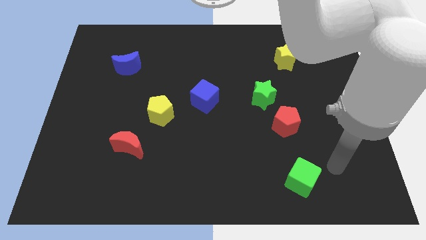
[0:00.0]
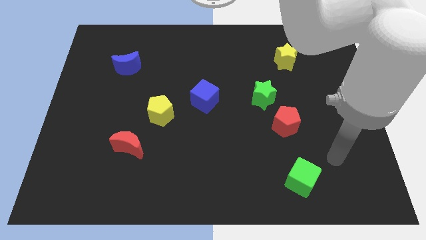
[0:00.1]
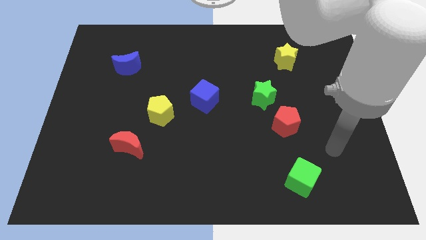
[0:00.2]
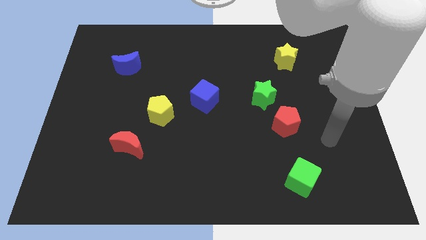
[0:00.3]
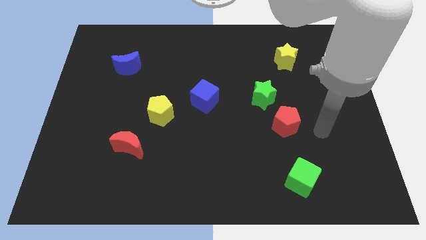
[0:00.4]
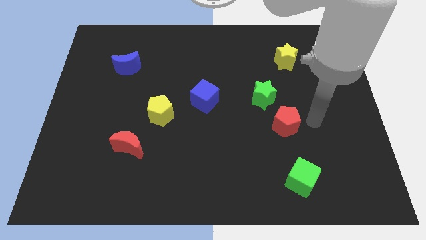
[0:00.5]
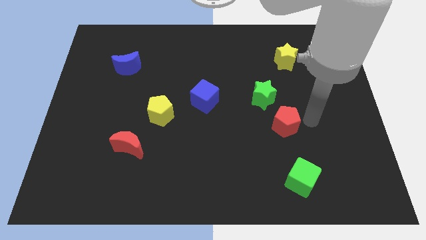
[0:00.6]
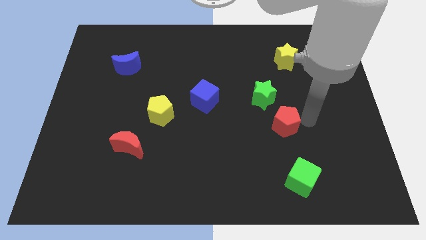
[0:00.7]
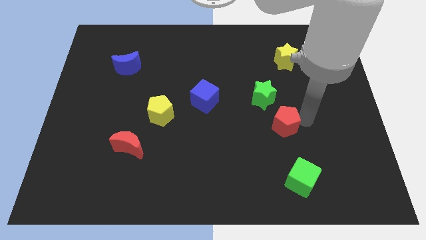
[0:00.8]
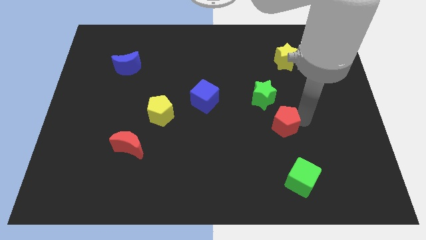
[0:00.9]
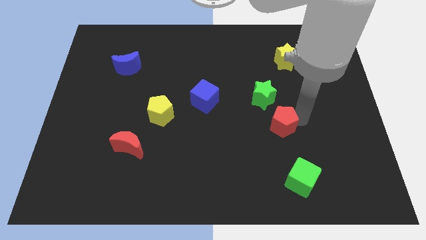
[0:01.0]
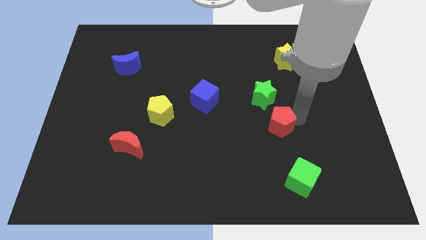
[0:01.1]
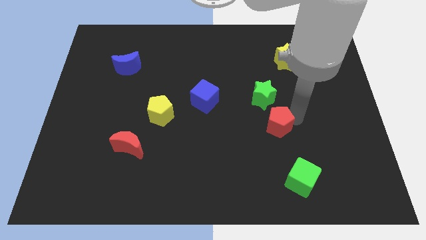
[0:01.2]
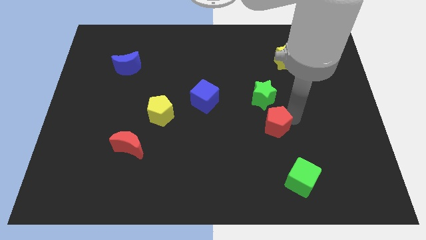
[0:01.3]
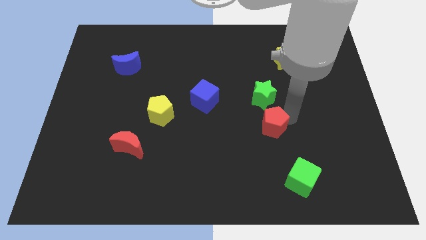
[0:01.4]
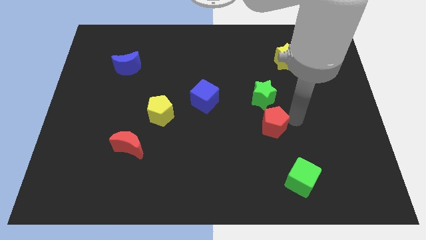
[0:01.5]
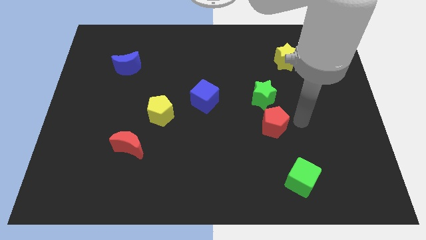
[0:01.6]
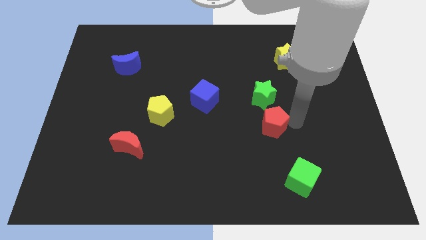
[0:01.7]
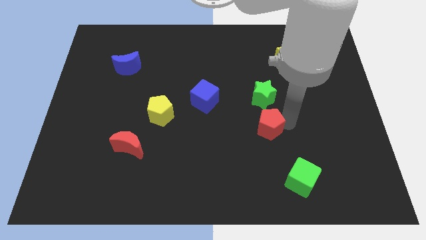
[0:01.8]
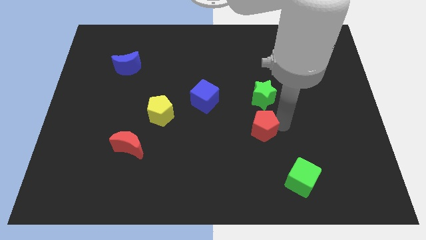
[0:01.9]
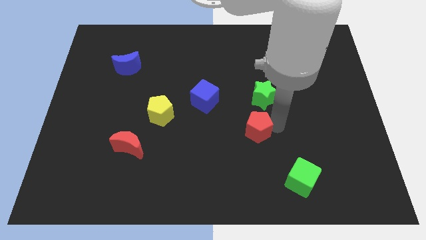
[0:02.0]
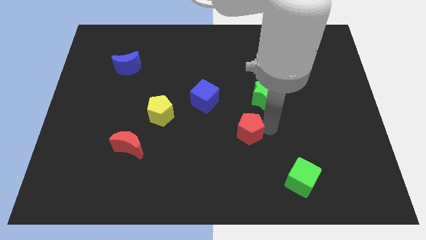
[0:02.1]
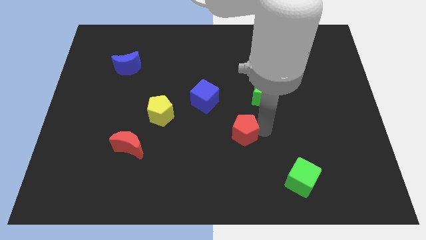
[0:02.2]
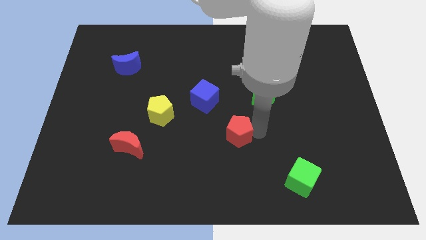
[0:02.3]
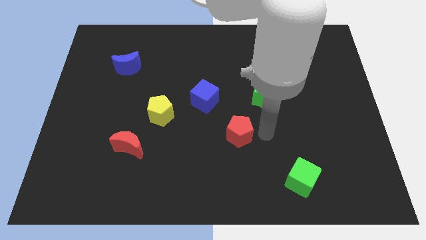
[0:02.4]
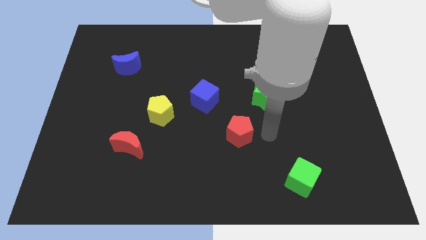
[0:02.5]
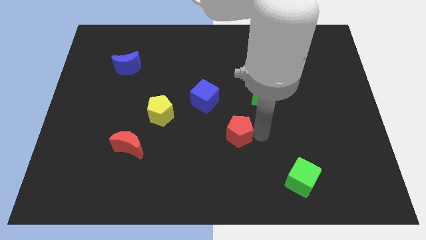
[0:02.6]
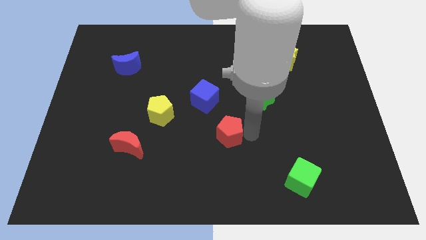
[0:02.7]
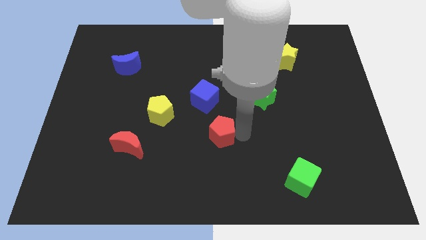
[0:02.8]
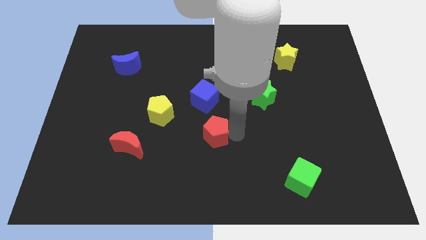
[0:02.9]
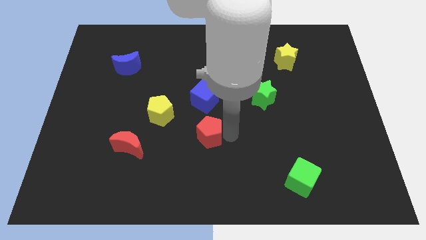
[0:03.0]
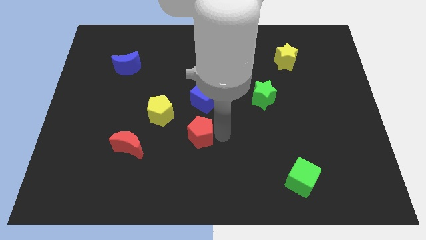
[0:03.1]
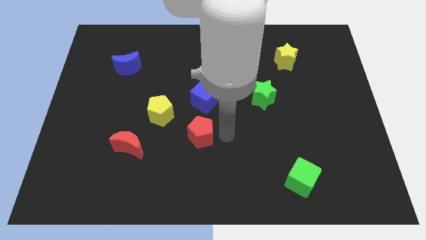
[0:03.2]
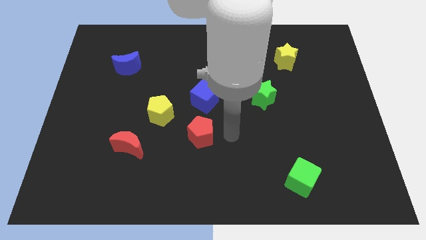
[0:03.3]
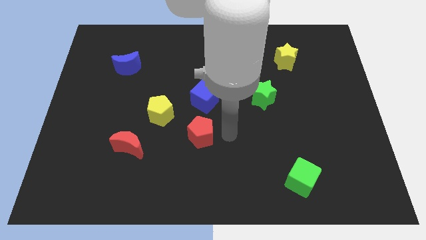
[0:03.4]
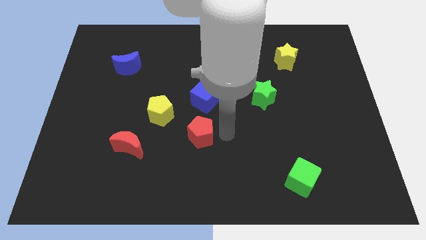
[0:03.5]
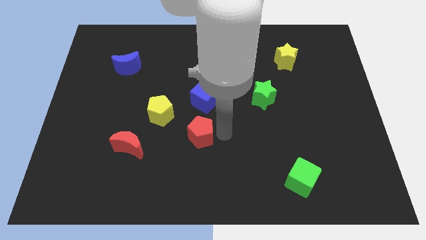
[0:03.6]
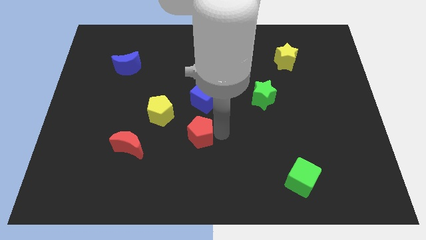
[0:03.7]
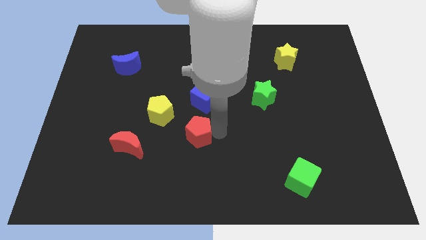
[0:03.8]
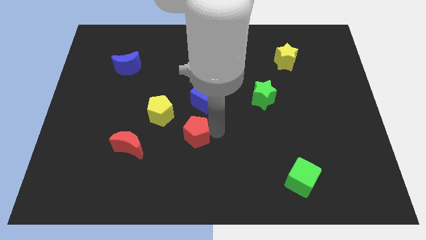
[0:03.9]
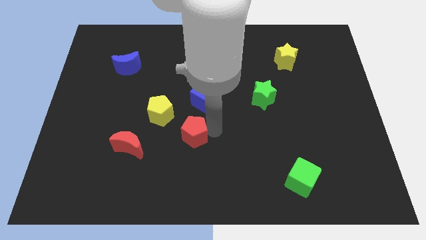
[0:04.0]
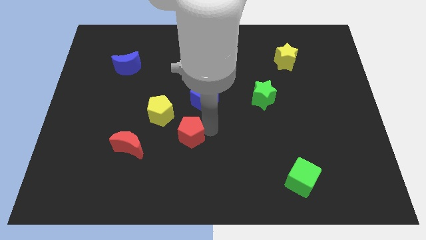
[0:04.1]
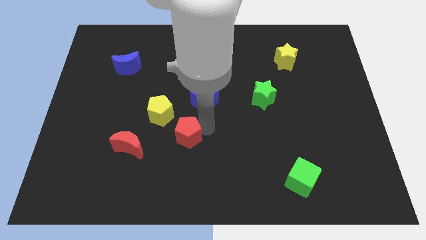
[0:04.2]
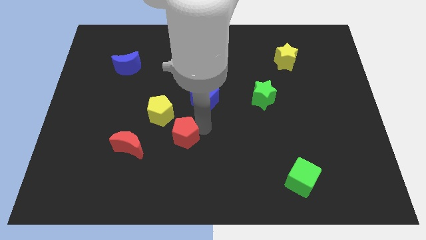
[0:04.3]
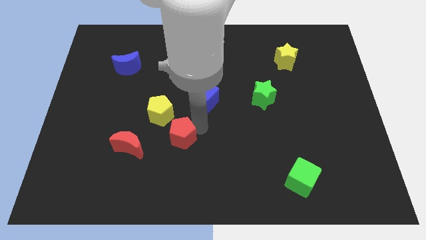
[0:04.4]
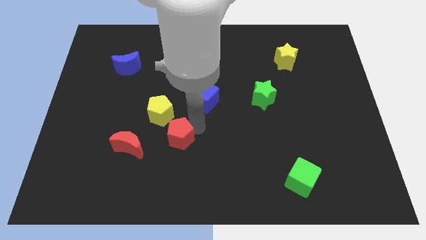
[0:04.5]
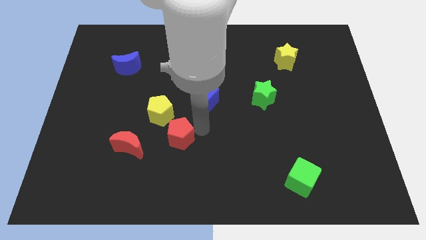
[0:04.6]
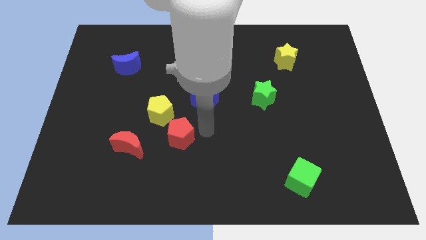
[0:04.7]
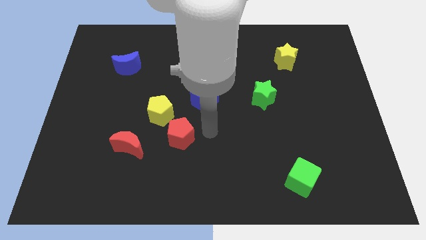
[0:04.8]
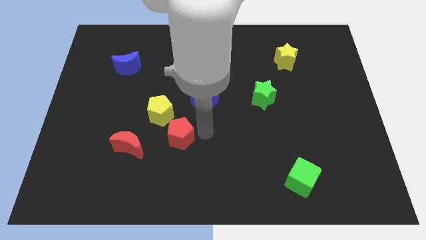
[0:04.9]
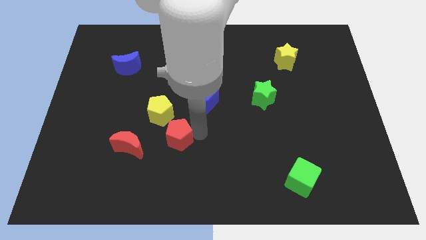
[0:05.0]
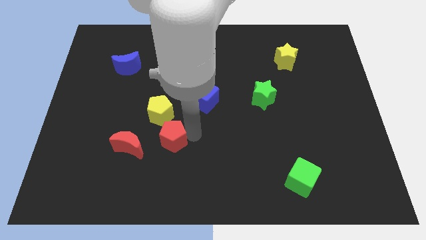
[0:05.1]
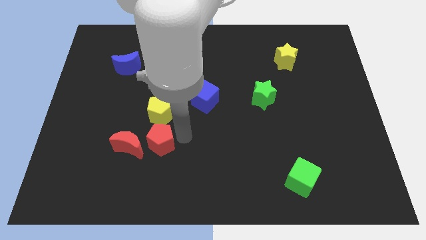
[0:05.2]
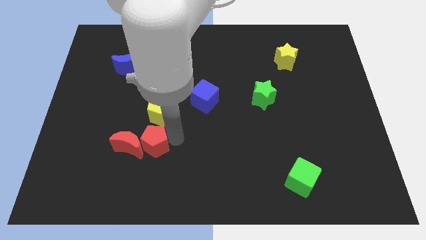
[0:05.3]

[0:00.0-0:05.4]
move the red pentagon towards the red moon

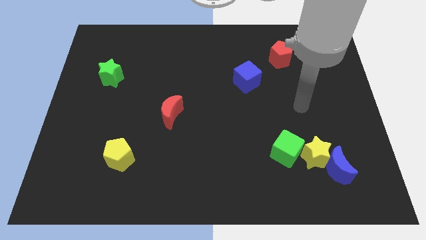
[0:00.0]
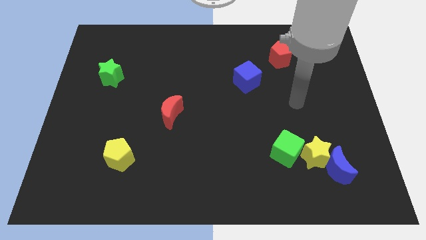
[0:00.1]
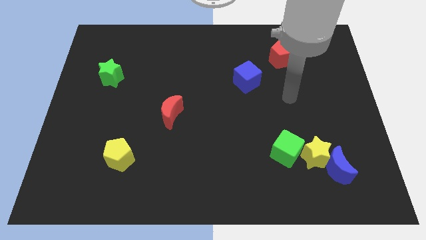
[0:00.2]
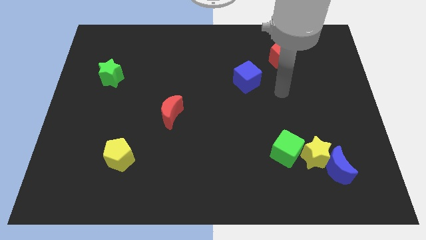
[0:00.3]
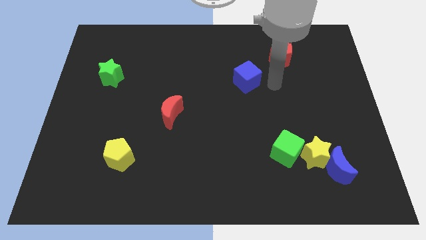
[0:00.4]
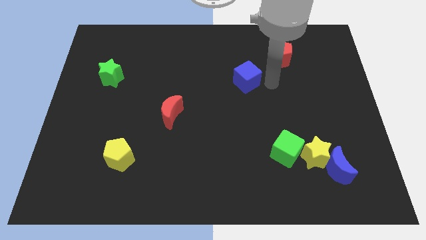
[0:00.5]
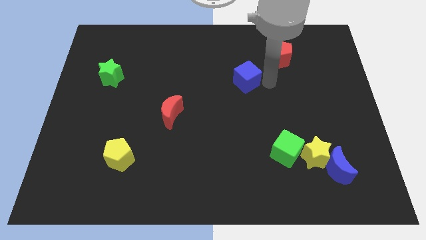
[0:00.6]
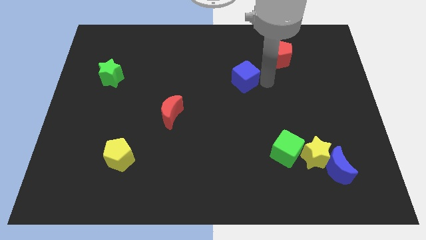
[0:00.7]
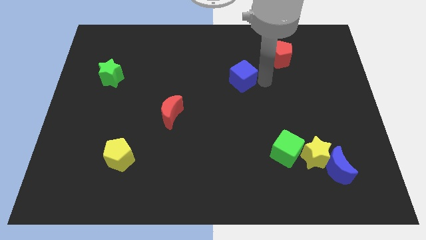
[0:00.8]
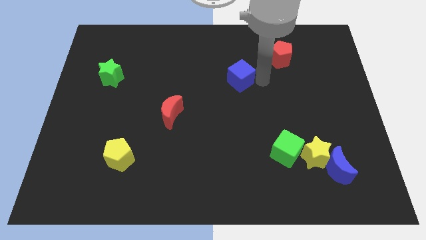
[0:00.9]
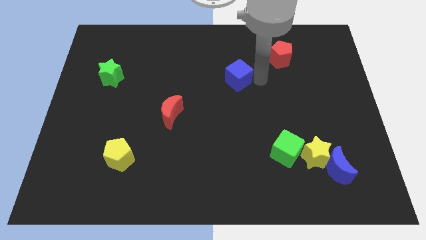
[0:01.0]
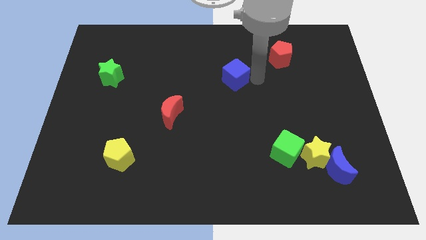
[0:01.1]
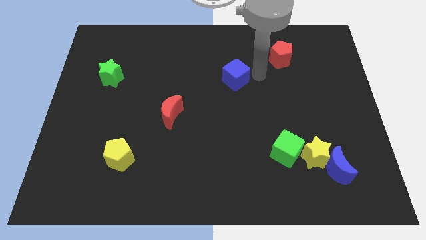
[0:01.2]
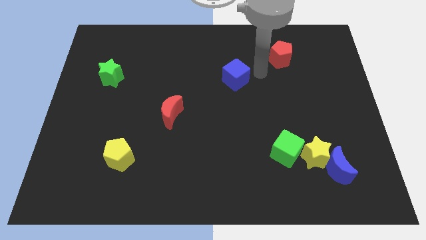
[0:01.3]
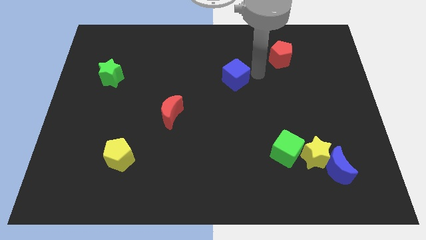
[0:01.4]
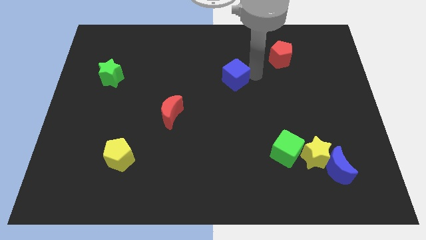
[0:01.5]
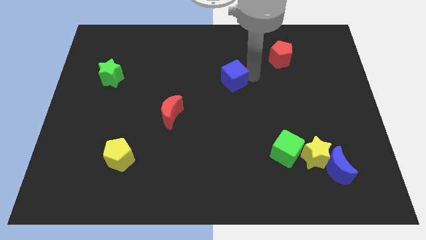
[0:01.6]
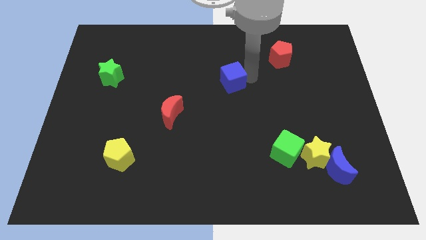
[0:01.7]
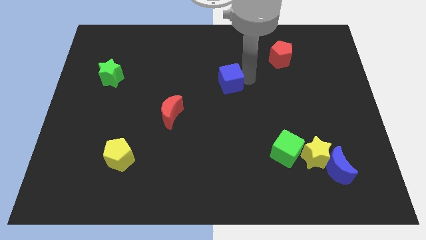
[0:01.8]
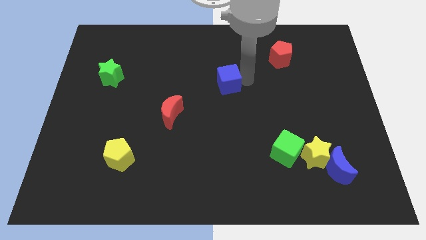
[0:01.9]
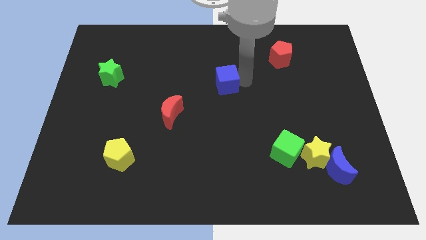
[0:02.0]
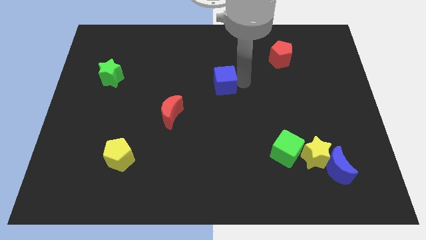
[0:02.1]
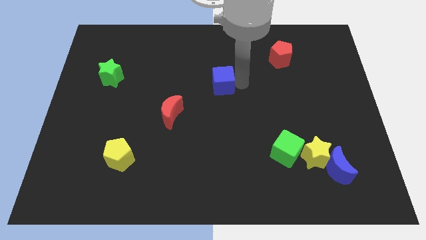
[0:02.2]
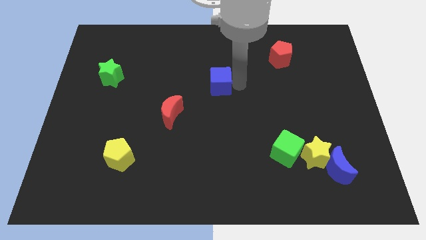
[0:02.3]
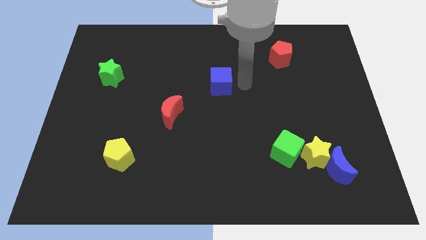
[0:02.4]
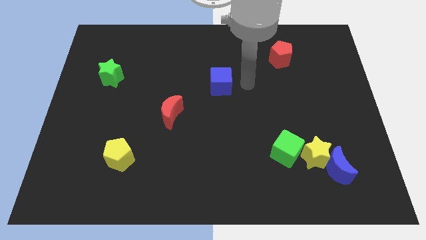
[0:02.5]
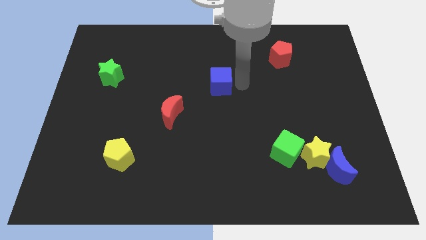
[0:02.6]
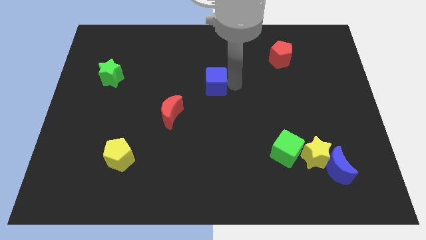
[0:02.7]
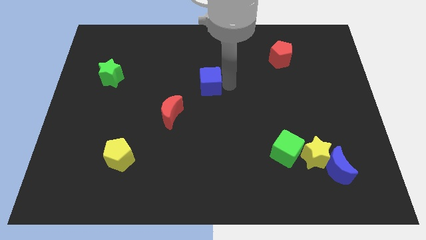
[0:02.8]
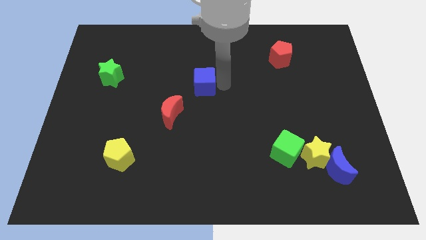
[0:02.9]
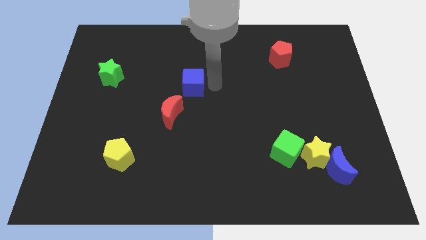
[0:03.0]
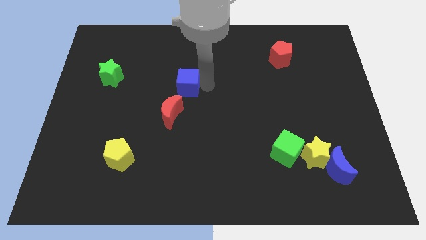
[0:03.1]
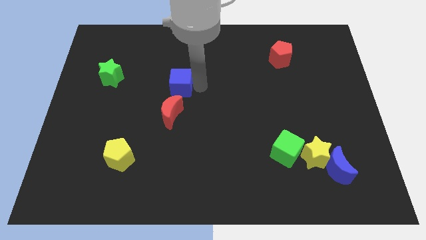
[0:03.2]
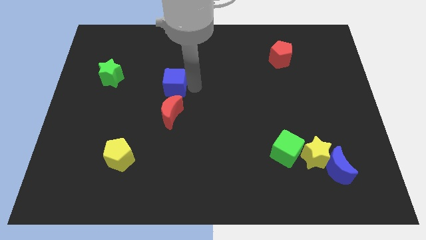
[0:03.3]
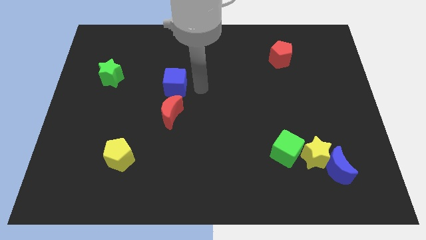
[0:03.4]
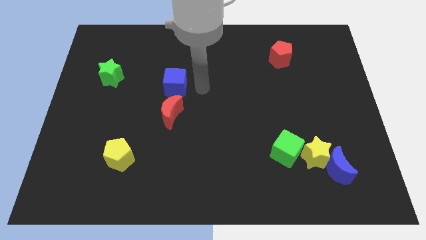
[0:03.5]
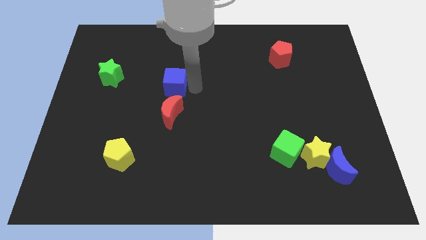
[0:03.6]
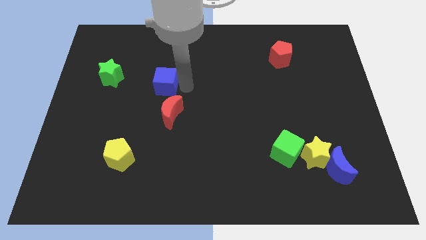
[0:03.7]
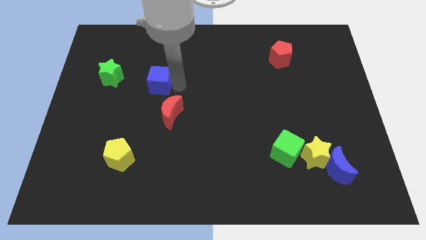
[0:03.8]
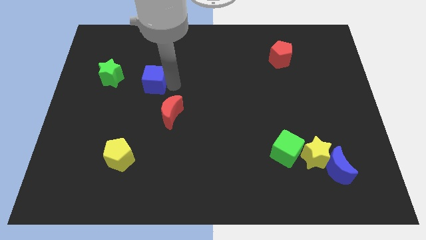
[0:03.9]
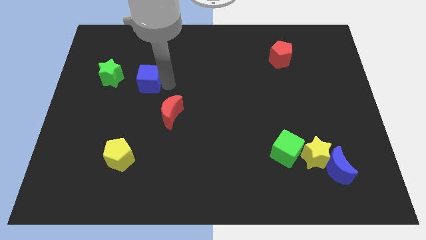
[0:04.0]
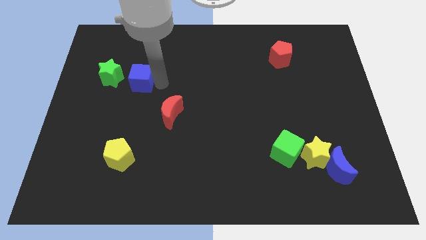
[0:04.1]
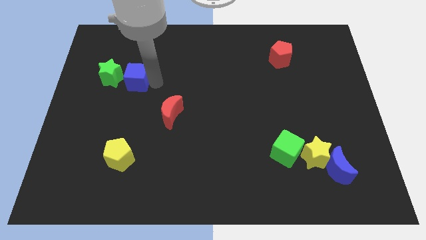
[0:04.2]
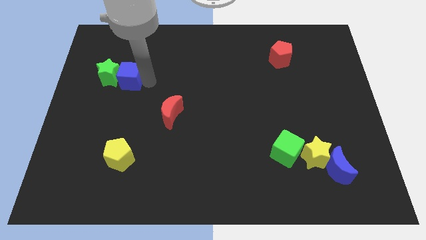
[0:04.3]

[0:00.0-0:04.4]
put the blue cube next to the green star
